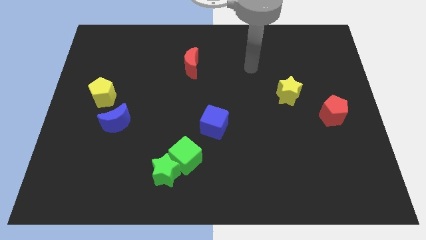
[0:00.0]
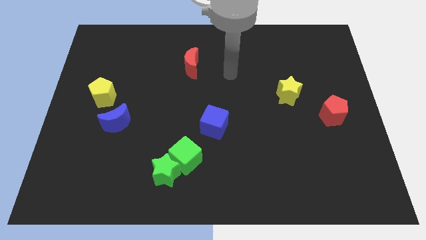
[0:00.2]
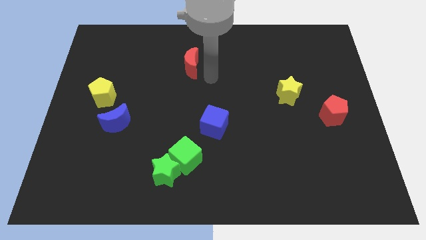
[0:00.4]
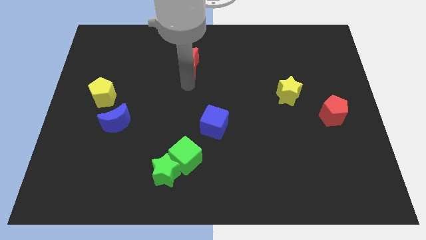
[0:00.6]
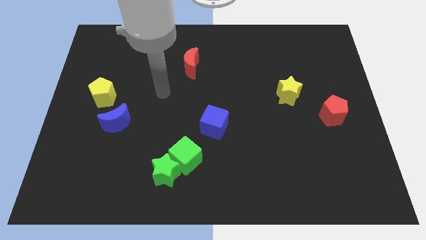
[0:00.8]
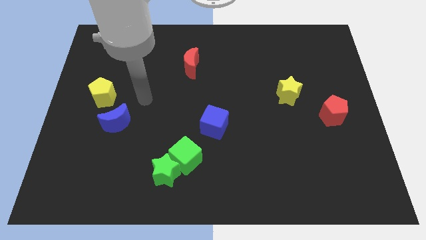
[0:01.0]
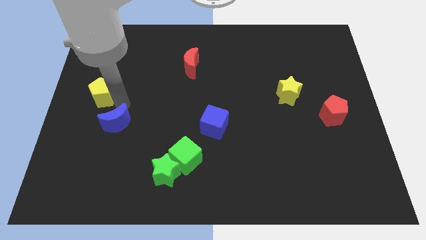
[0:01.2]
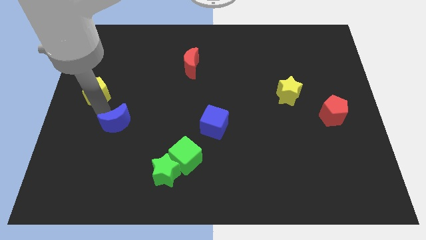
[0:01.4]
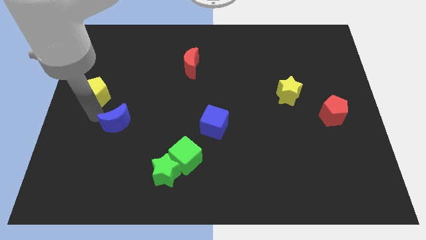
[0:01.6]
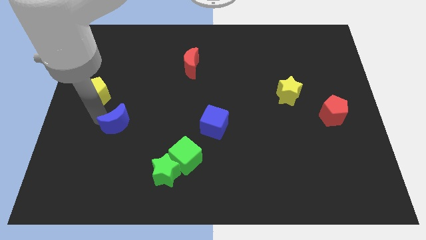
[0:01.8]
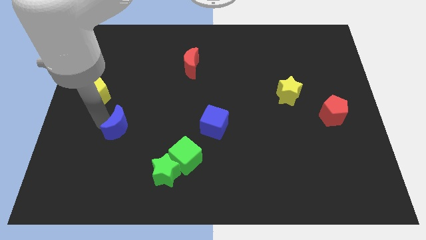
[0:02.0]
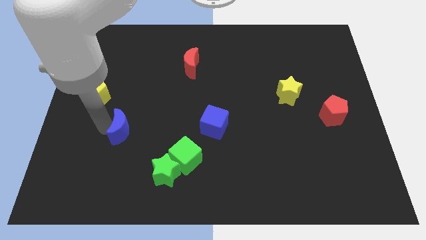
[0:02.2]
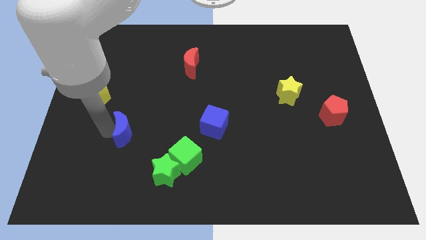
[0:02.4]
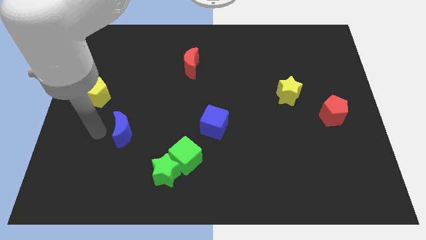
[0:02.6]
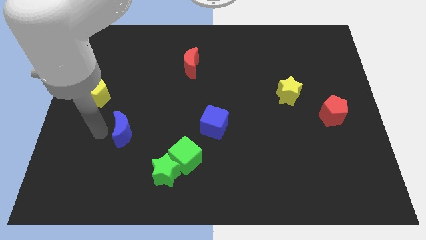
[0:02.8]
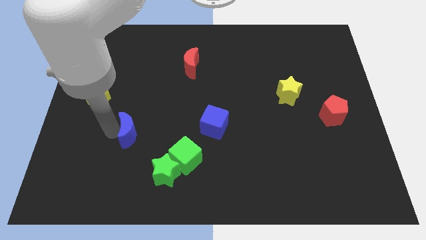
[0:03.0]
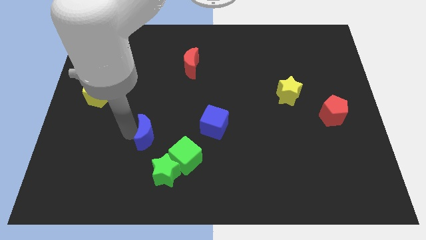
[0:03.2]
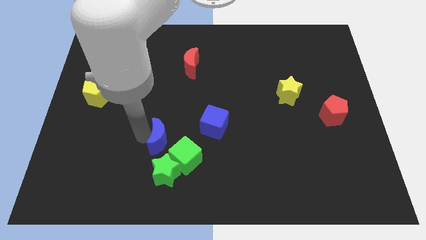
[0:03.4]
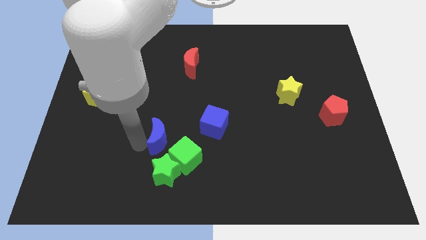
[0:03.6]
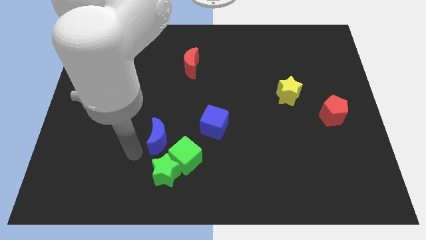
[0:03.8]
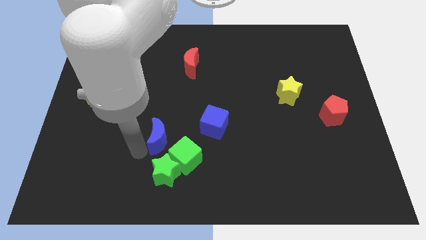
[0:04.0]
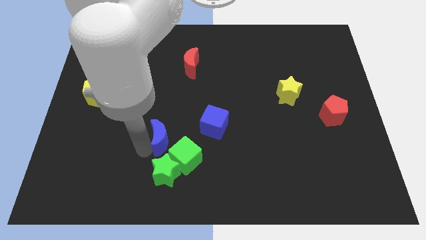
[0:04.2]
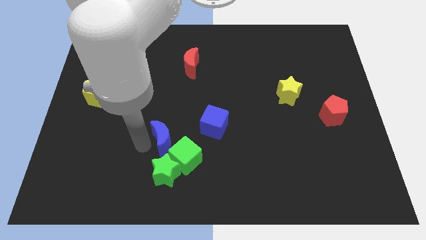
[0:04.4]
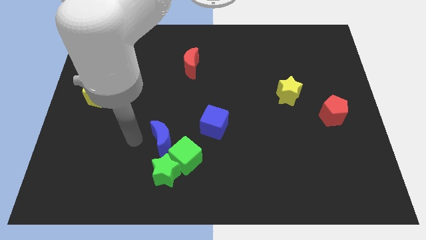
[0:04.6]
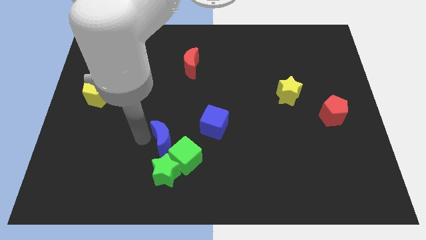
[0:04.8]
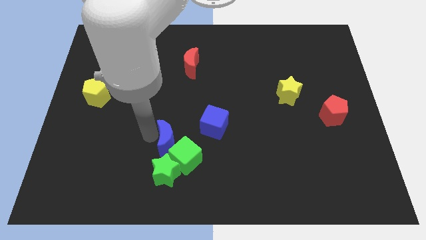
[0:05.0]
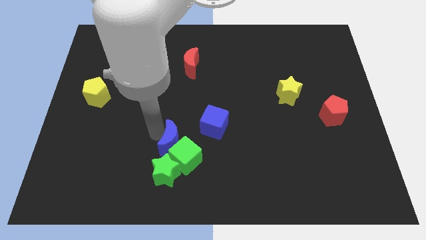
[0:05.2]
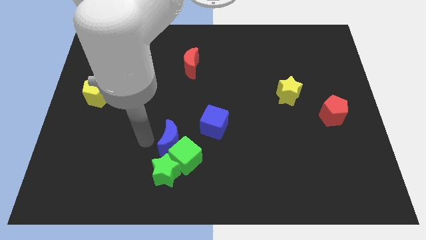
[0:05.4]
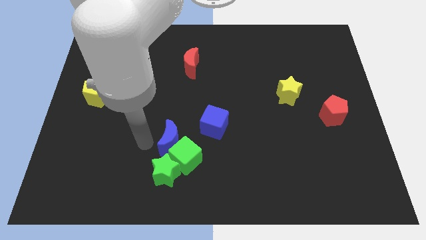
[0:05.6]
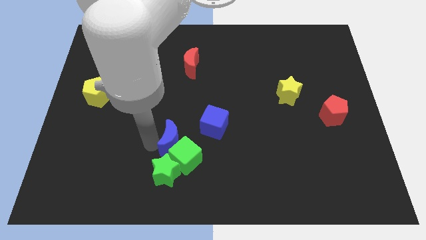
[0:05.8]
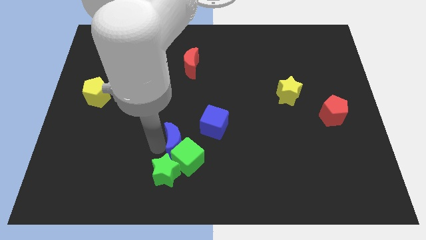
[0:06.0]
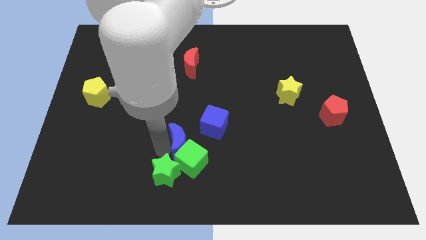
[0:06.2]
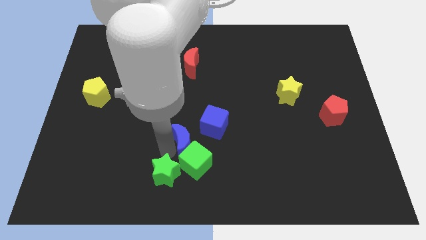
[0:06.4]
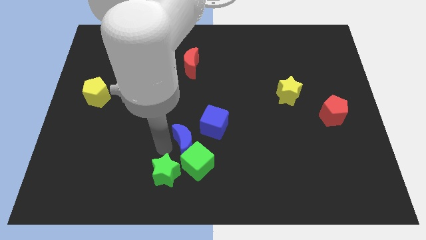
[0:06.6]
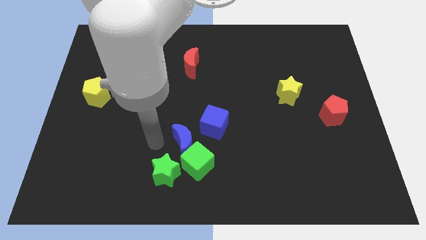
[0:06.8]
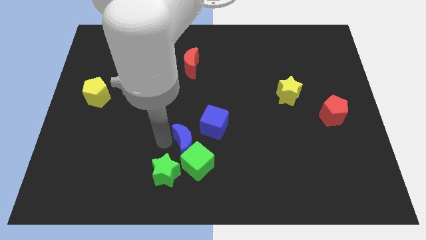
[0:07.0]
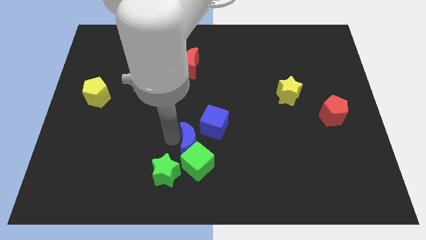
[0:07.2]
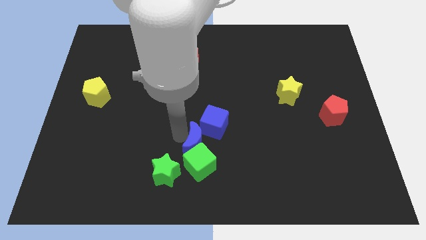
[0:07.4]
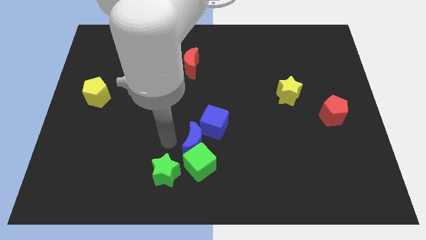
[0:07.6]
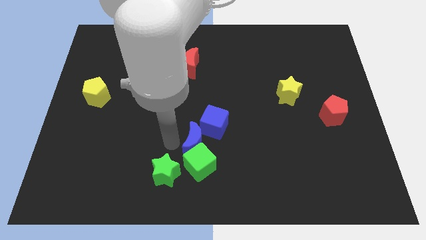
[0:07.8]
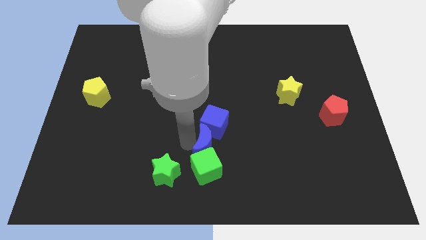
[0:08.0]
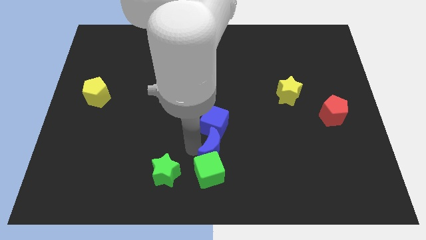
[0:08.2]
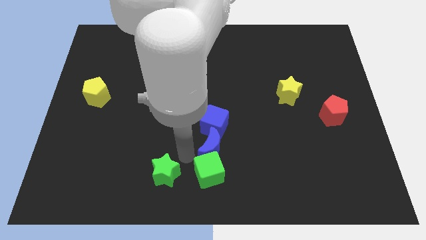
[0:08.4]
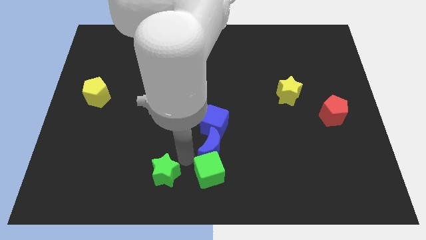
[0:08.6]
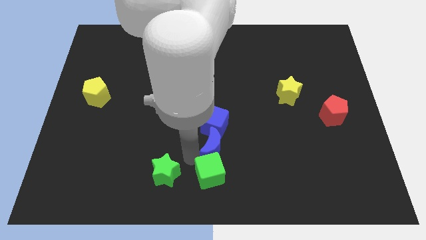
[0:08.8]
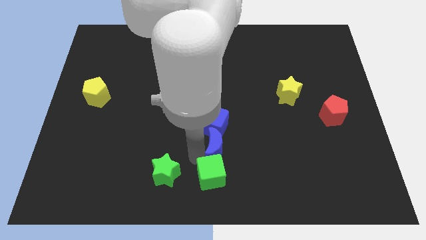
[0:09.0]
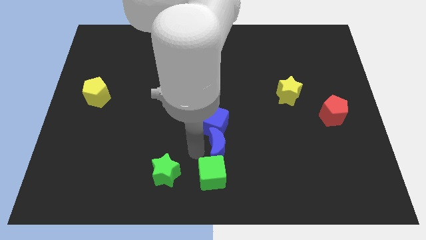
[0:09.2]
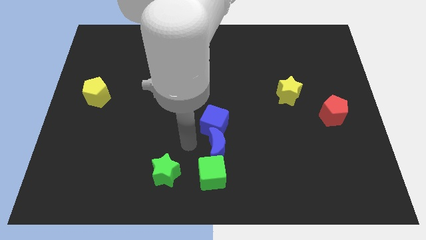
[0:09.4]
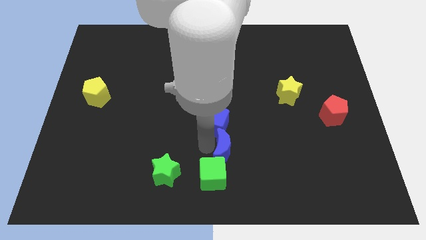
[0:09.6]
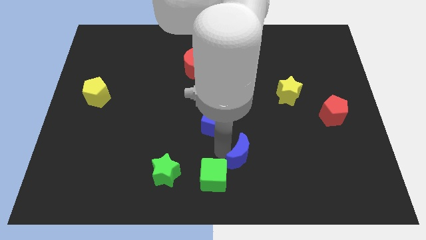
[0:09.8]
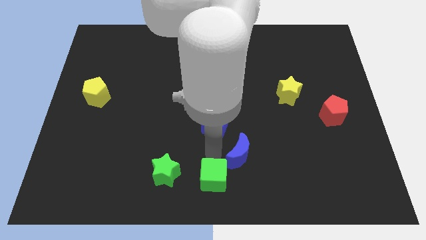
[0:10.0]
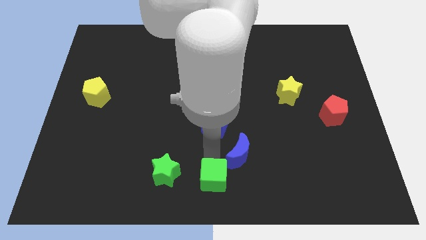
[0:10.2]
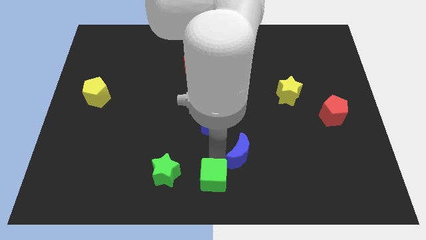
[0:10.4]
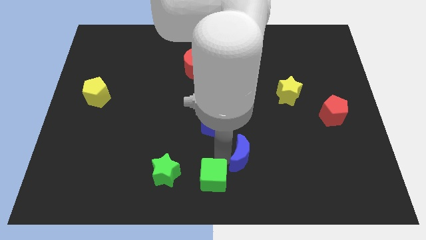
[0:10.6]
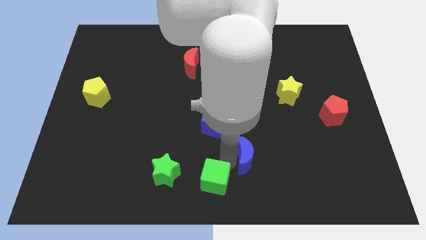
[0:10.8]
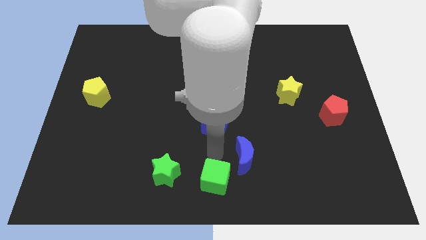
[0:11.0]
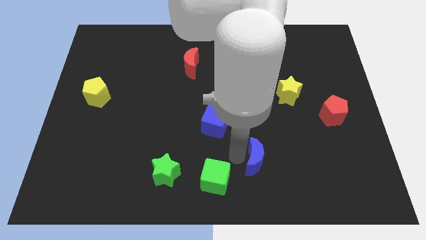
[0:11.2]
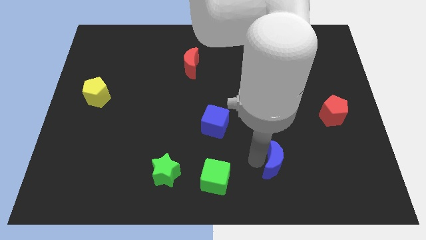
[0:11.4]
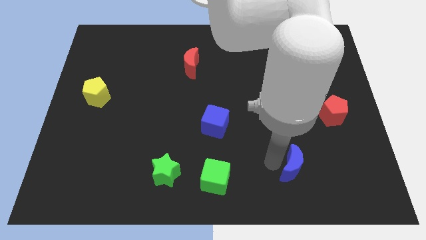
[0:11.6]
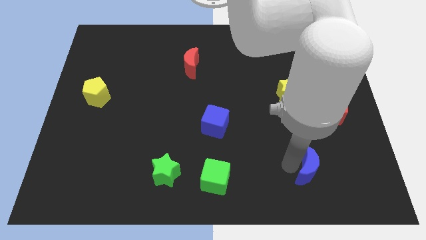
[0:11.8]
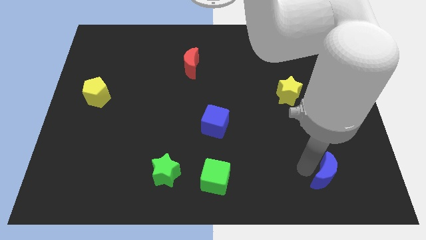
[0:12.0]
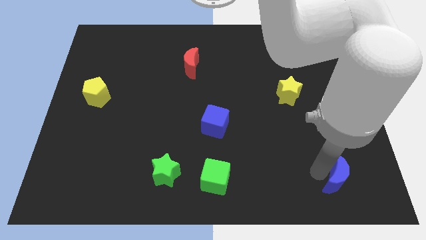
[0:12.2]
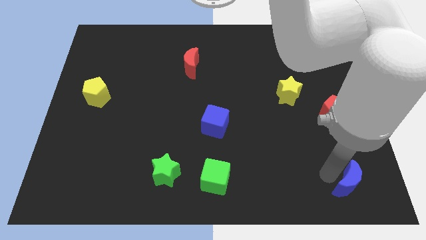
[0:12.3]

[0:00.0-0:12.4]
put the blue moon to the bottom right corner

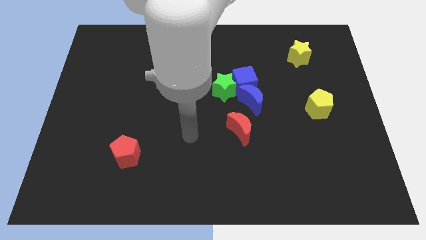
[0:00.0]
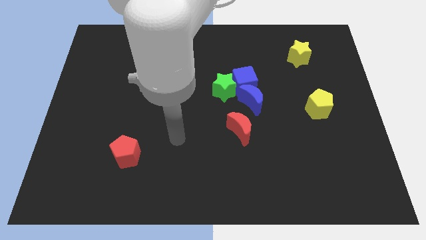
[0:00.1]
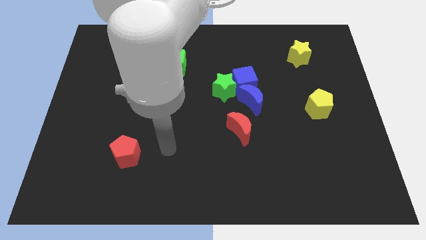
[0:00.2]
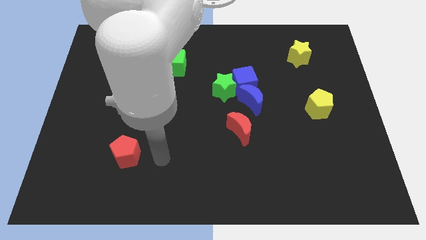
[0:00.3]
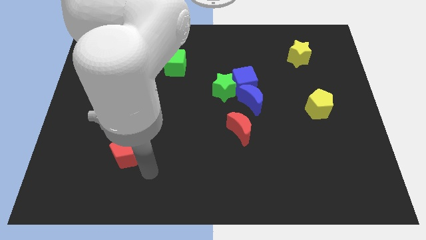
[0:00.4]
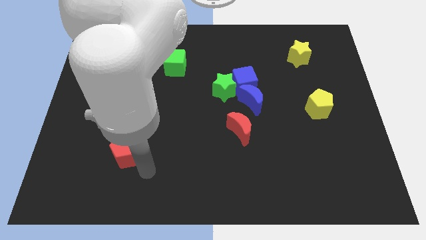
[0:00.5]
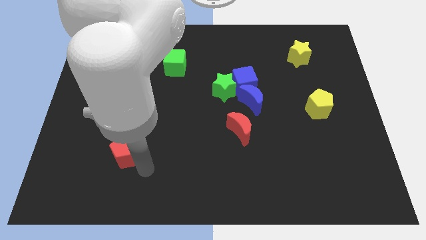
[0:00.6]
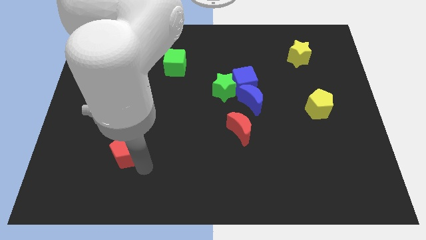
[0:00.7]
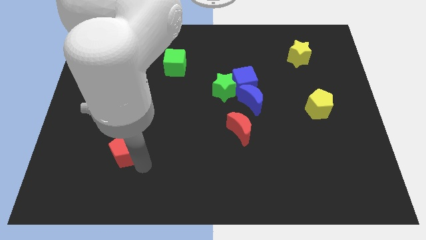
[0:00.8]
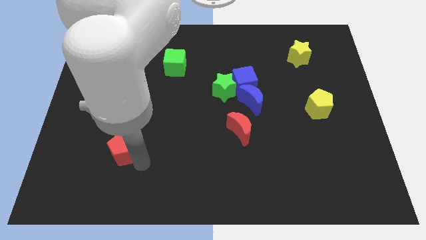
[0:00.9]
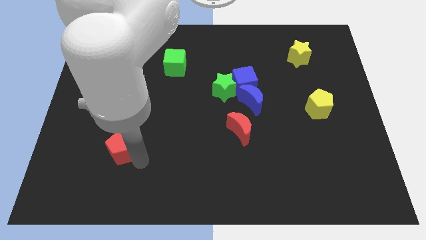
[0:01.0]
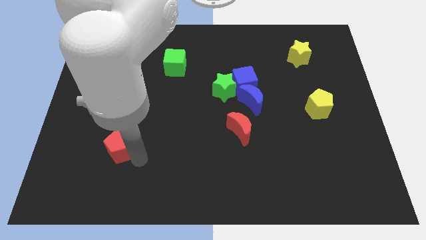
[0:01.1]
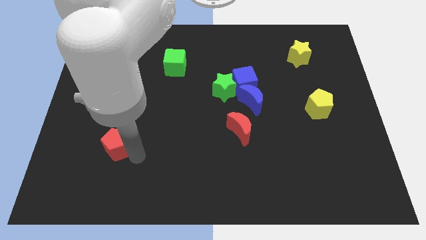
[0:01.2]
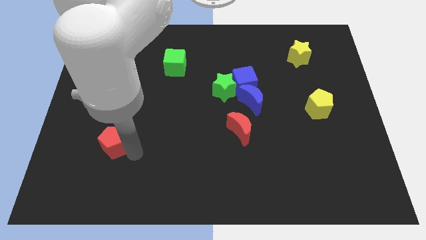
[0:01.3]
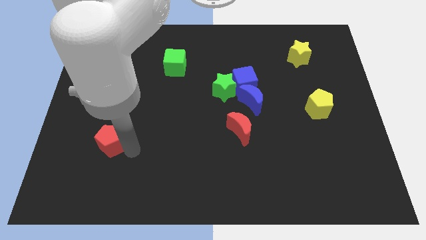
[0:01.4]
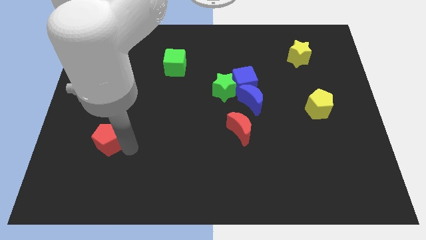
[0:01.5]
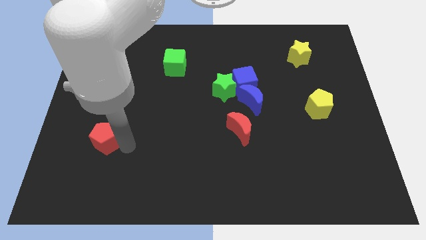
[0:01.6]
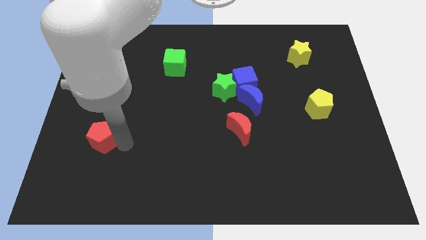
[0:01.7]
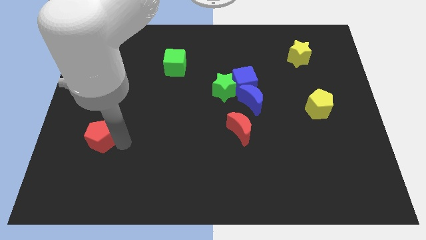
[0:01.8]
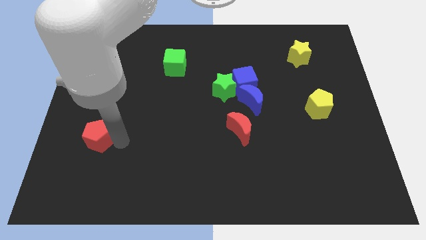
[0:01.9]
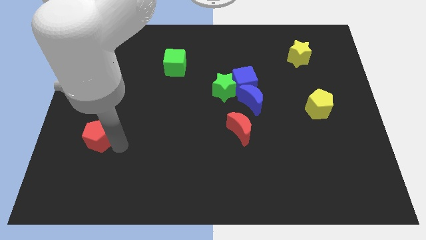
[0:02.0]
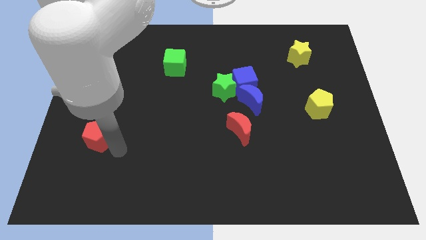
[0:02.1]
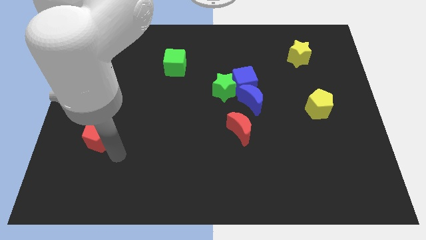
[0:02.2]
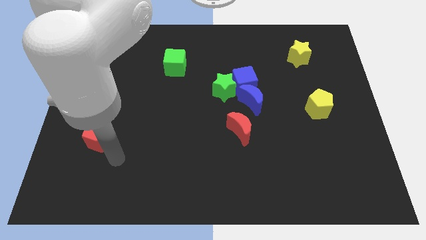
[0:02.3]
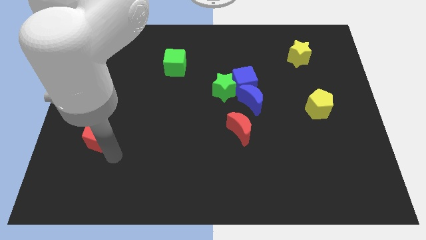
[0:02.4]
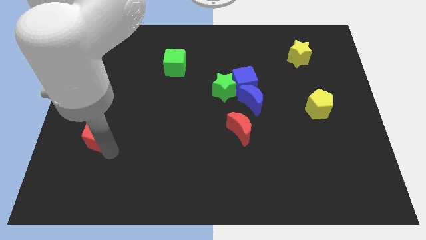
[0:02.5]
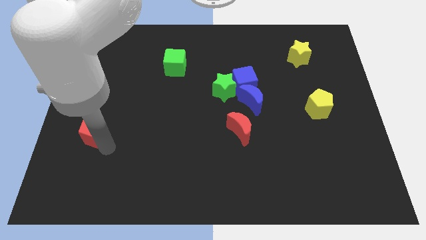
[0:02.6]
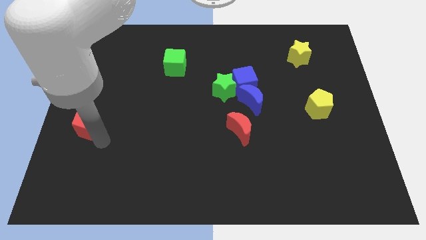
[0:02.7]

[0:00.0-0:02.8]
move the red pentagon to the left side
